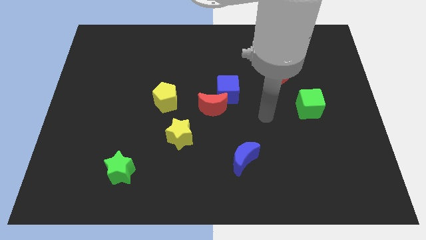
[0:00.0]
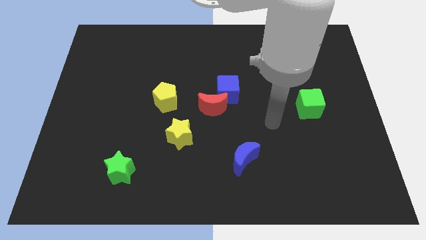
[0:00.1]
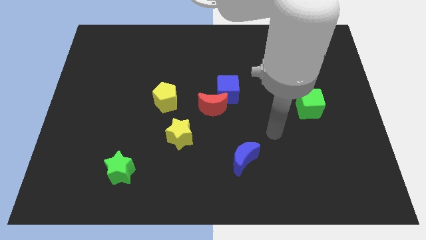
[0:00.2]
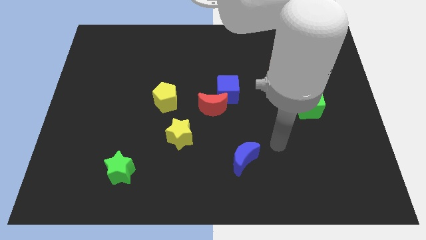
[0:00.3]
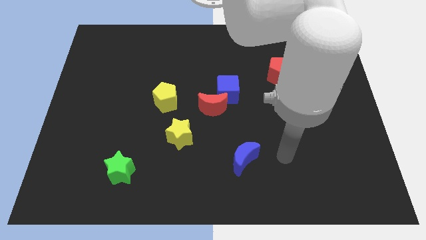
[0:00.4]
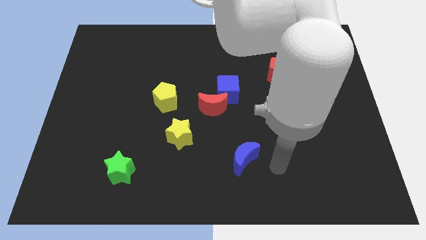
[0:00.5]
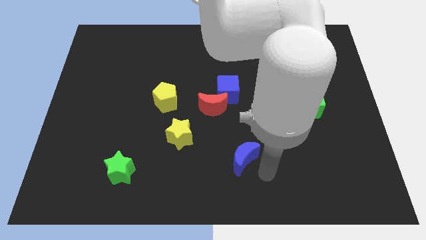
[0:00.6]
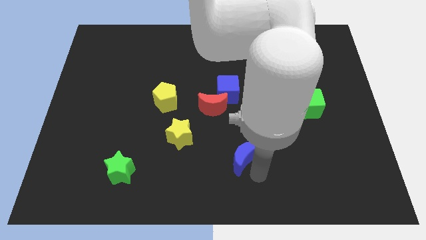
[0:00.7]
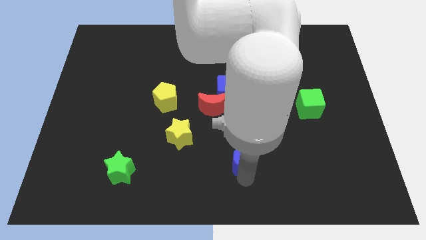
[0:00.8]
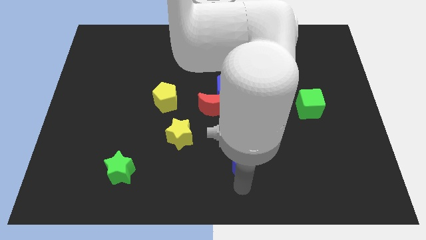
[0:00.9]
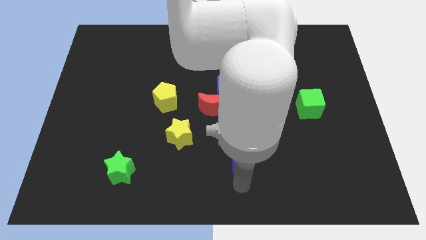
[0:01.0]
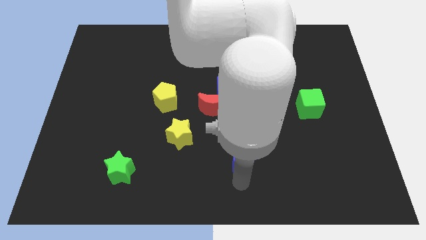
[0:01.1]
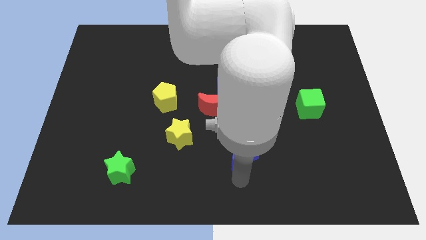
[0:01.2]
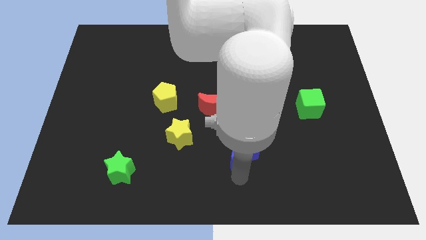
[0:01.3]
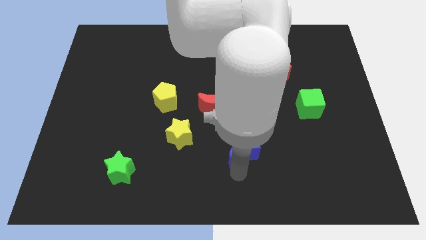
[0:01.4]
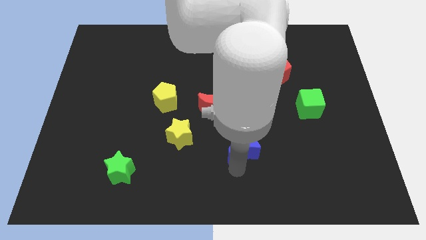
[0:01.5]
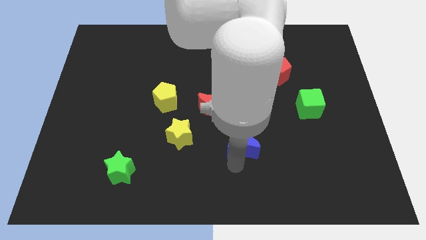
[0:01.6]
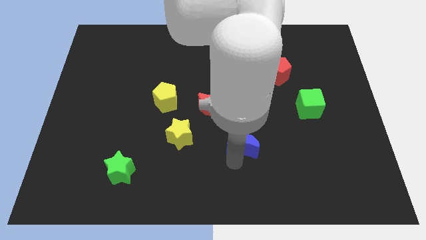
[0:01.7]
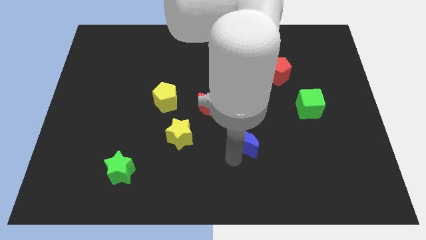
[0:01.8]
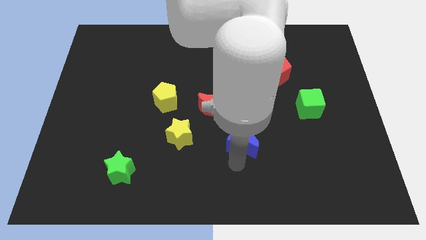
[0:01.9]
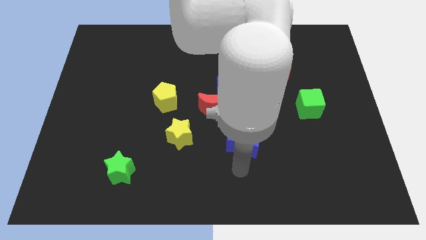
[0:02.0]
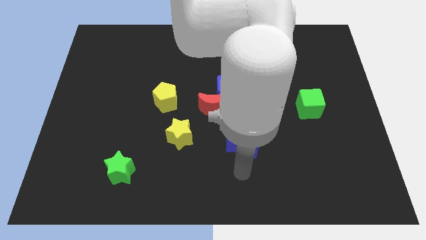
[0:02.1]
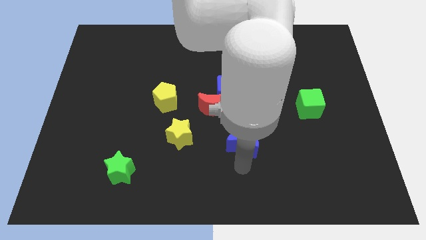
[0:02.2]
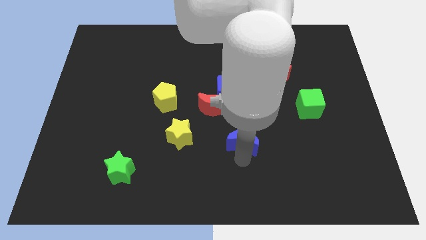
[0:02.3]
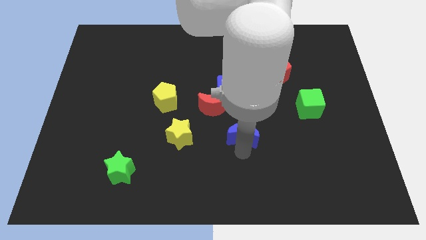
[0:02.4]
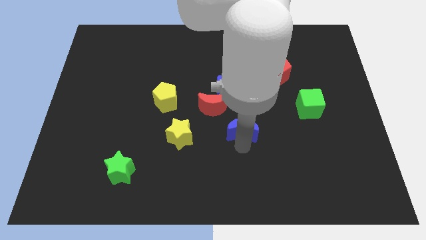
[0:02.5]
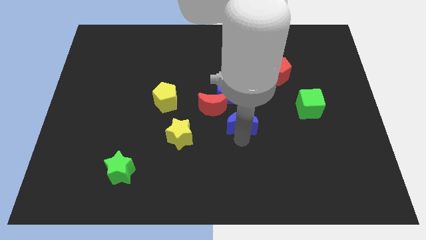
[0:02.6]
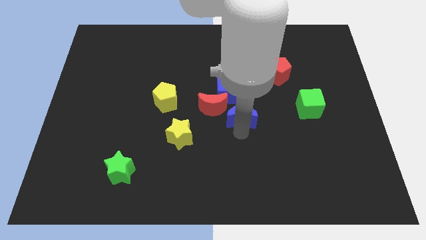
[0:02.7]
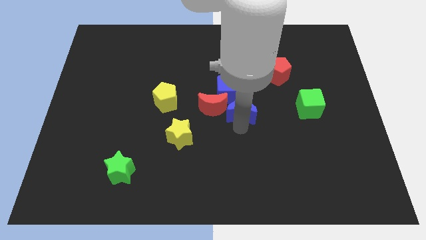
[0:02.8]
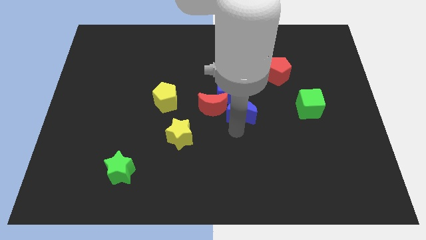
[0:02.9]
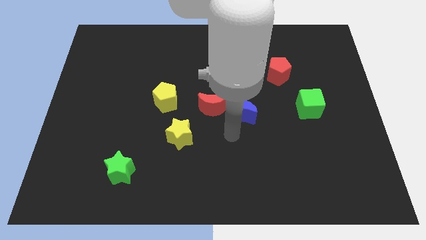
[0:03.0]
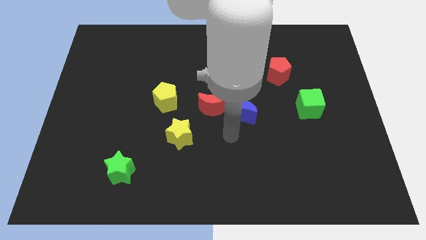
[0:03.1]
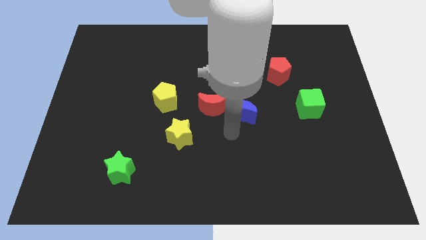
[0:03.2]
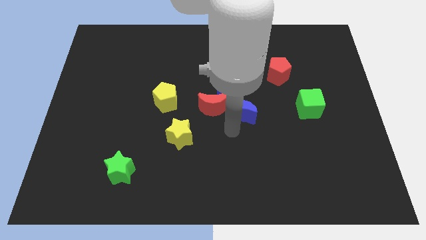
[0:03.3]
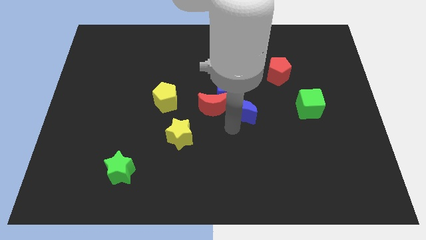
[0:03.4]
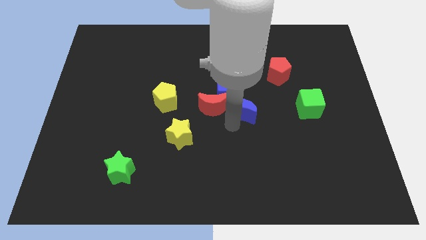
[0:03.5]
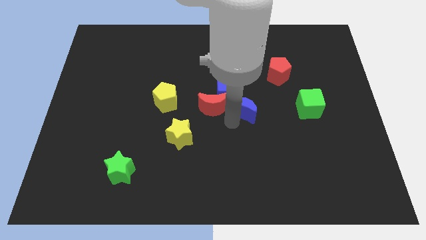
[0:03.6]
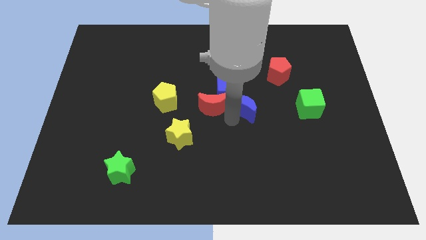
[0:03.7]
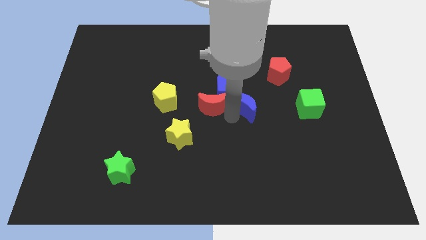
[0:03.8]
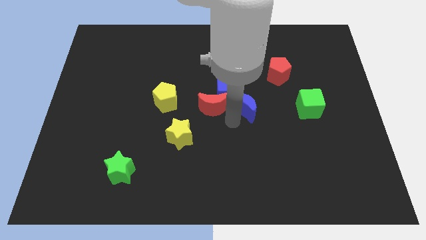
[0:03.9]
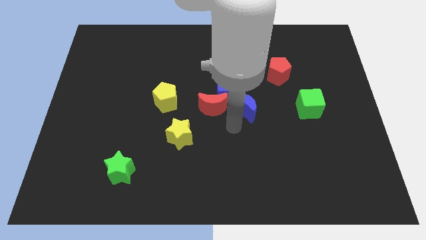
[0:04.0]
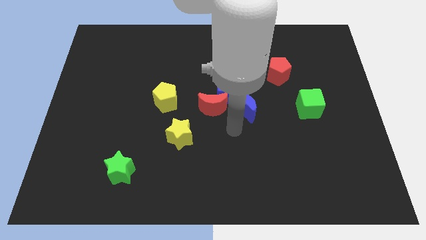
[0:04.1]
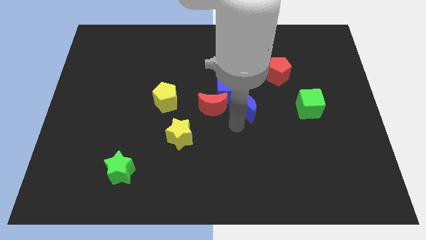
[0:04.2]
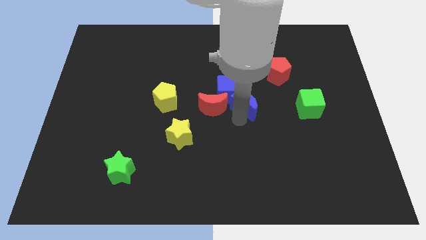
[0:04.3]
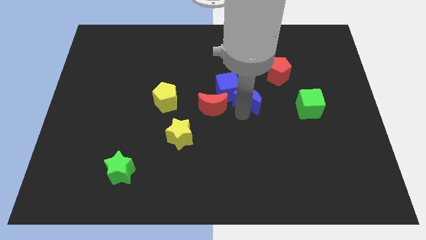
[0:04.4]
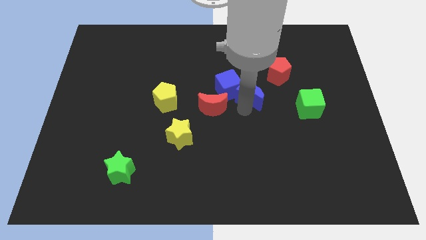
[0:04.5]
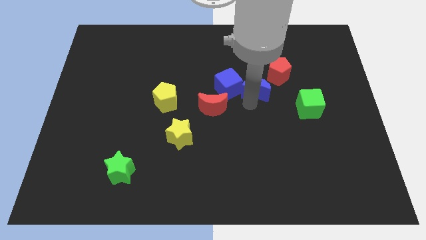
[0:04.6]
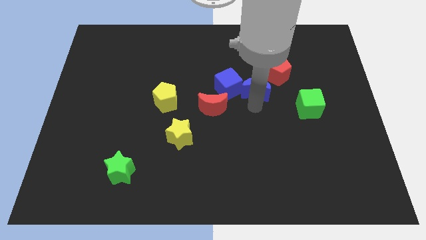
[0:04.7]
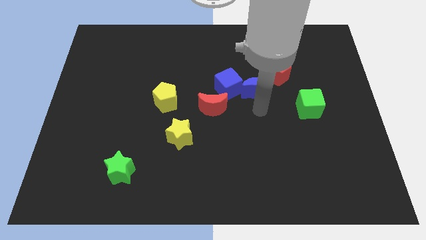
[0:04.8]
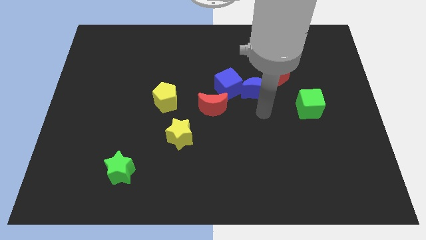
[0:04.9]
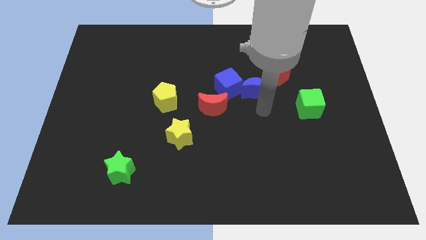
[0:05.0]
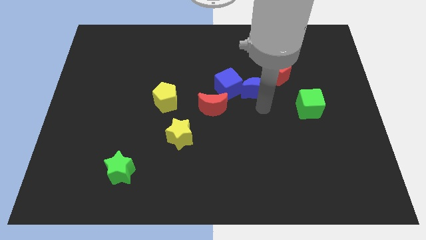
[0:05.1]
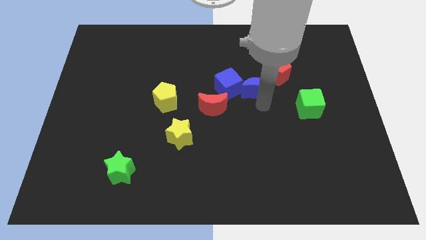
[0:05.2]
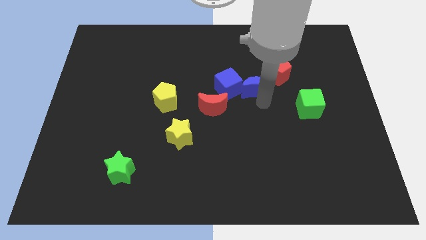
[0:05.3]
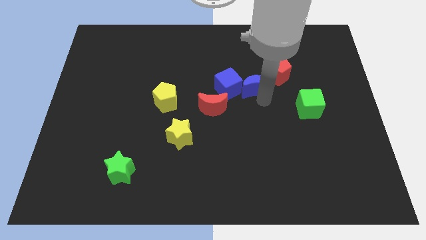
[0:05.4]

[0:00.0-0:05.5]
slide the blue moon diagonally up and to the right of the blue cube

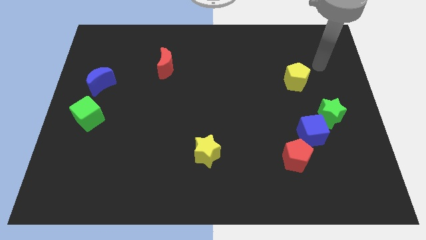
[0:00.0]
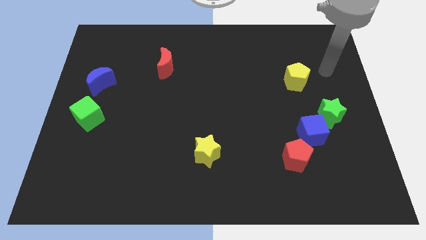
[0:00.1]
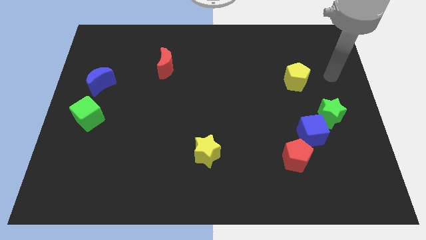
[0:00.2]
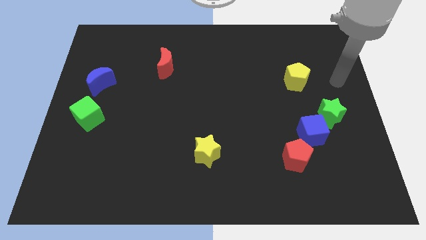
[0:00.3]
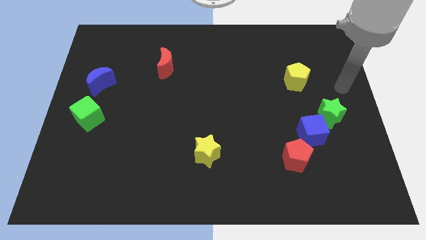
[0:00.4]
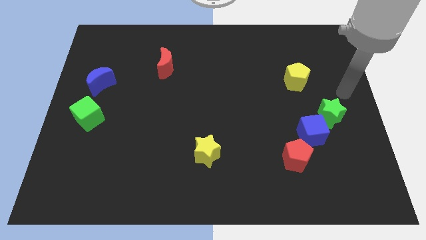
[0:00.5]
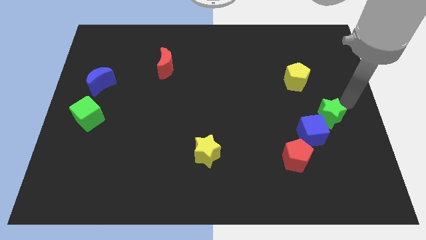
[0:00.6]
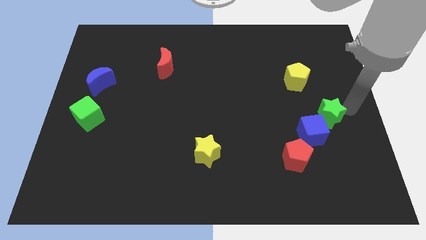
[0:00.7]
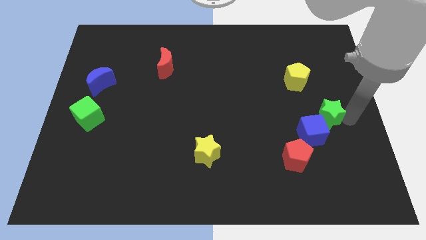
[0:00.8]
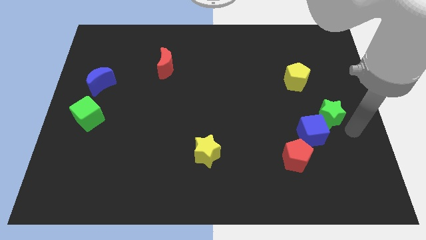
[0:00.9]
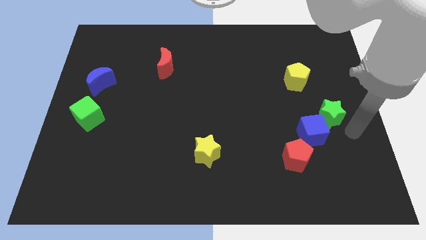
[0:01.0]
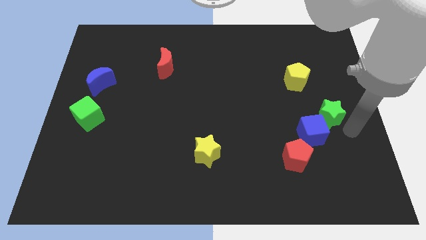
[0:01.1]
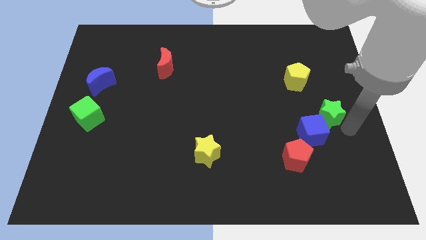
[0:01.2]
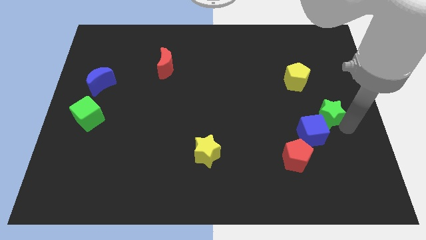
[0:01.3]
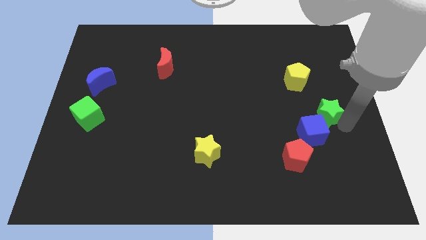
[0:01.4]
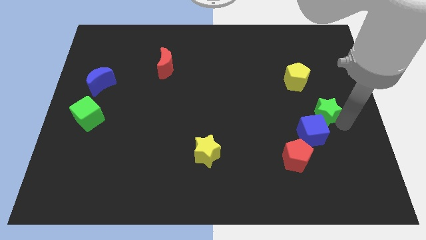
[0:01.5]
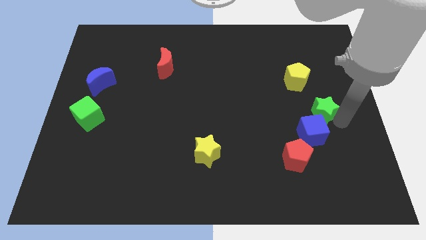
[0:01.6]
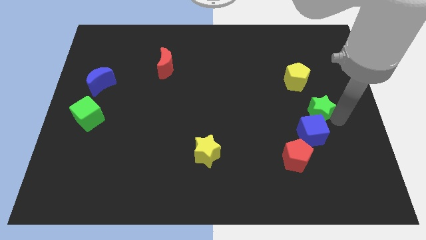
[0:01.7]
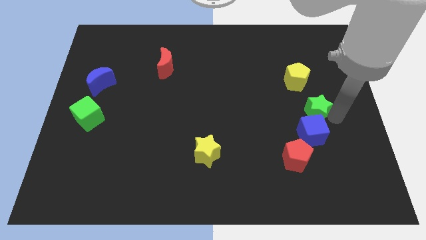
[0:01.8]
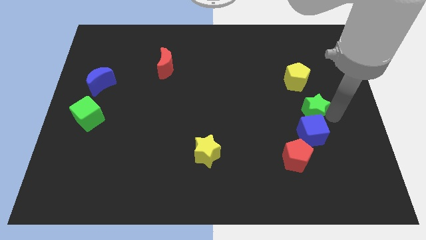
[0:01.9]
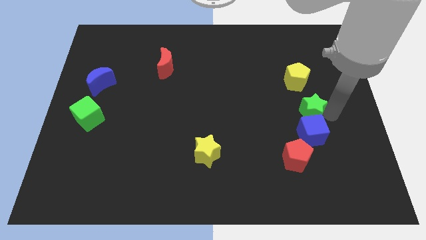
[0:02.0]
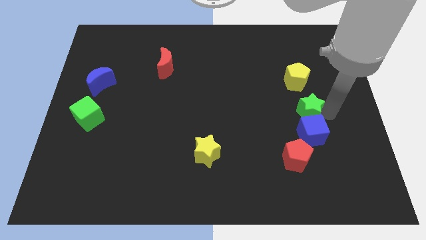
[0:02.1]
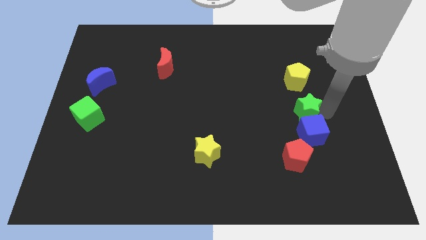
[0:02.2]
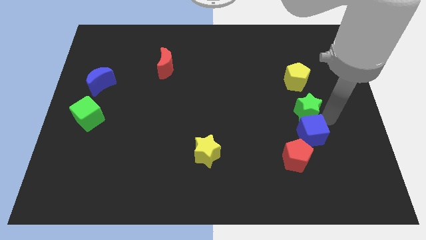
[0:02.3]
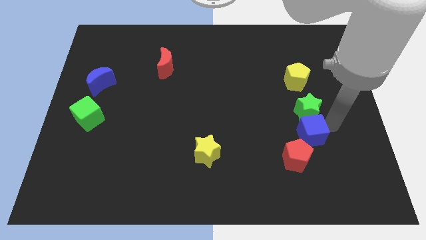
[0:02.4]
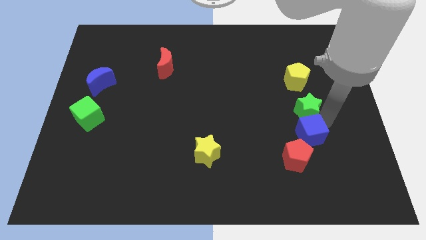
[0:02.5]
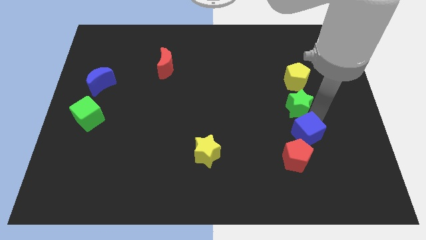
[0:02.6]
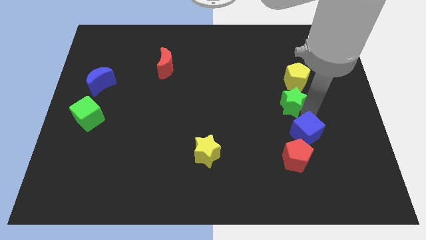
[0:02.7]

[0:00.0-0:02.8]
put the green star to the bottom left of the yellow pentagon
